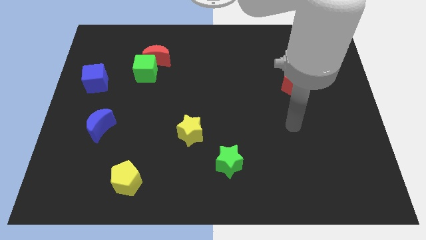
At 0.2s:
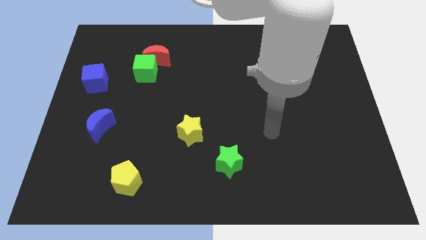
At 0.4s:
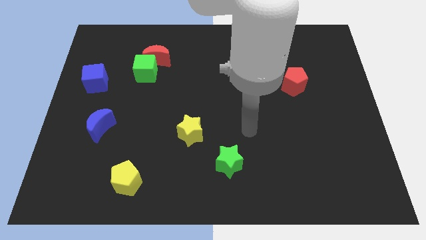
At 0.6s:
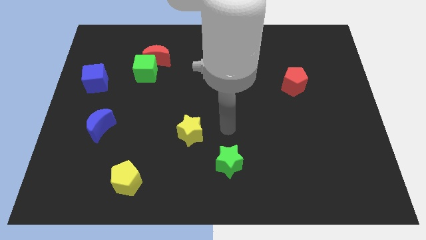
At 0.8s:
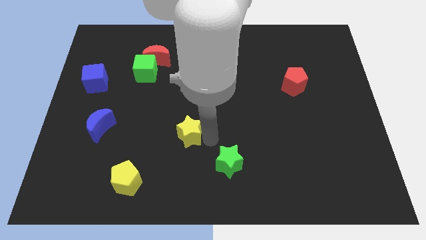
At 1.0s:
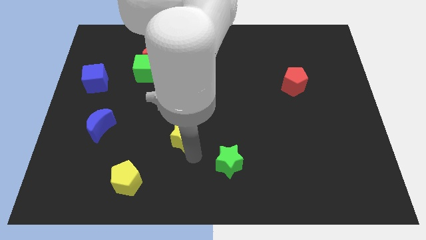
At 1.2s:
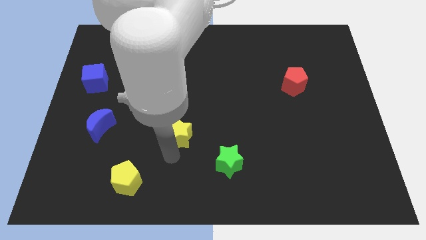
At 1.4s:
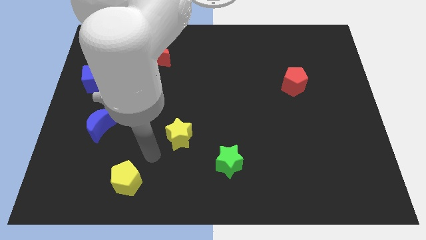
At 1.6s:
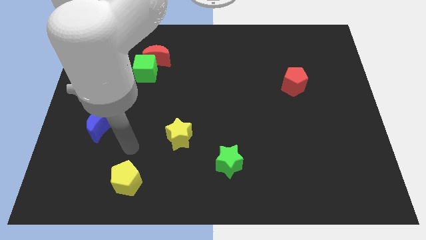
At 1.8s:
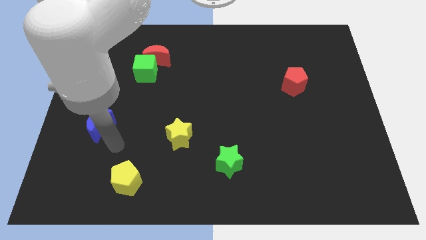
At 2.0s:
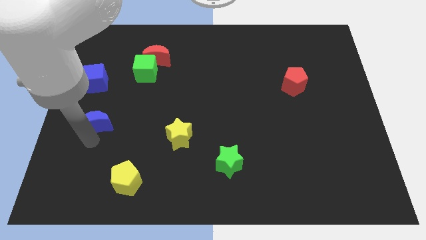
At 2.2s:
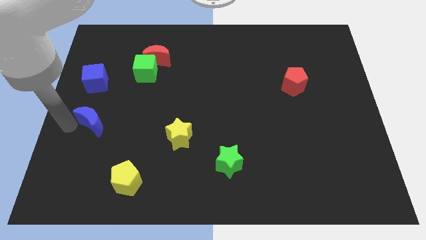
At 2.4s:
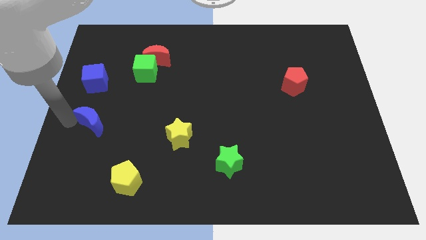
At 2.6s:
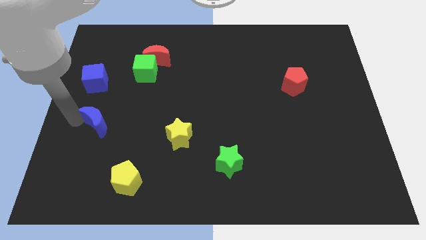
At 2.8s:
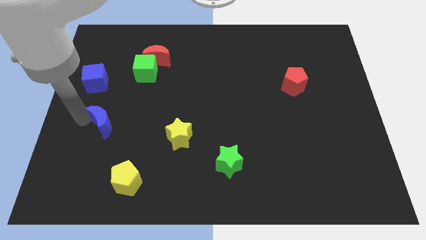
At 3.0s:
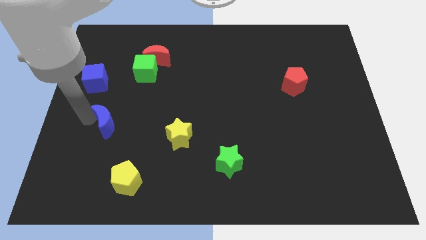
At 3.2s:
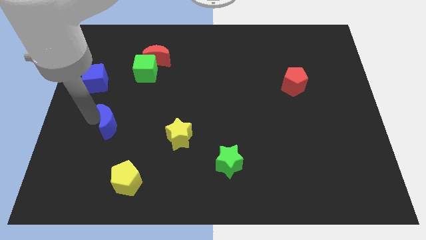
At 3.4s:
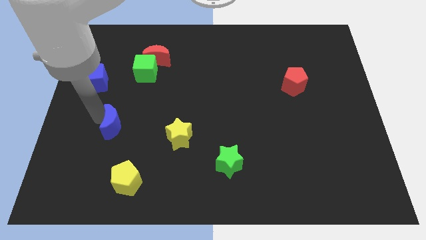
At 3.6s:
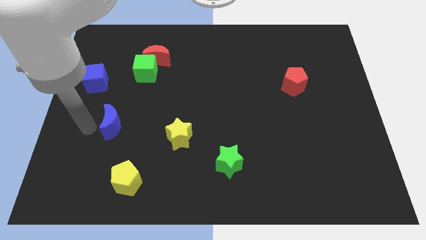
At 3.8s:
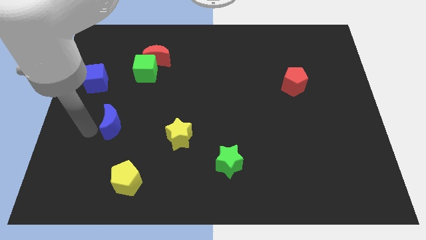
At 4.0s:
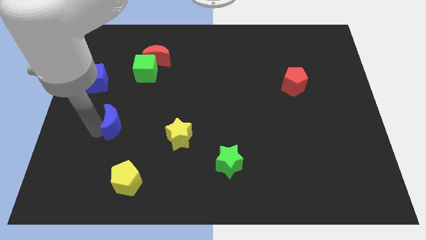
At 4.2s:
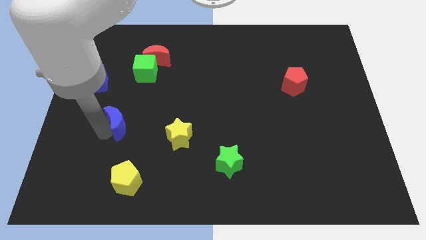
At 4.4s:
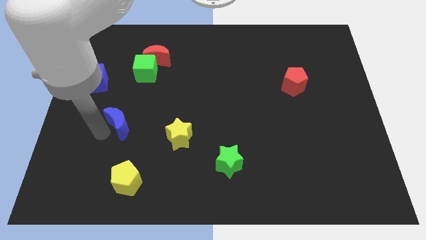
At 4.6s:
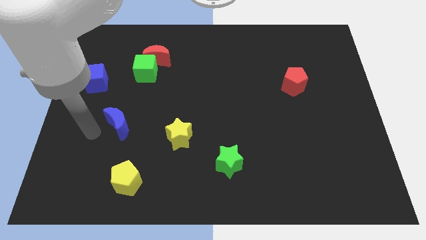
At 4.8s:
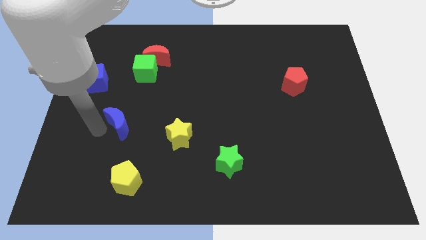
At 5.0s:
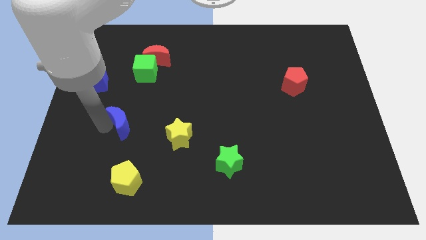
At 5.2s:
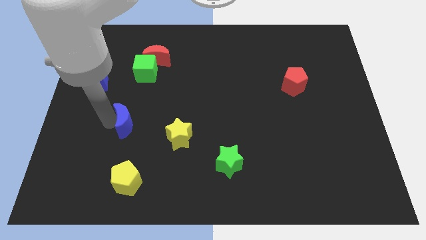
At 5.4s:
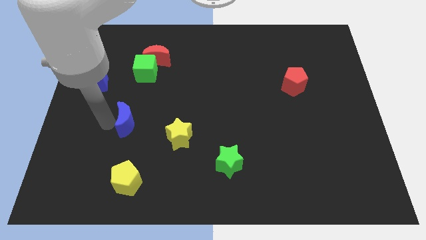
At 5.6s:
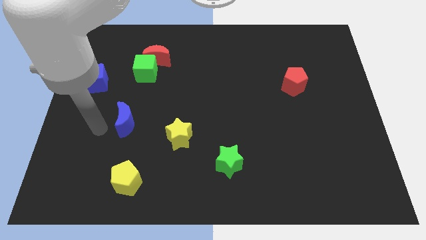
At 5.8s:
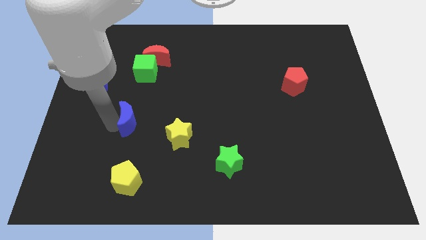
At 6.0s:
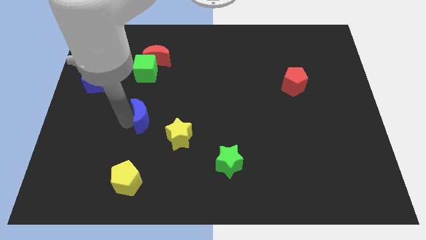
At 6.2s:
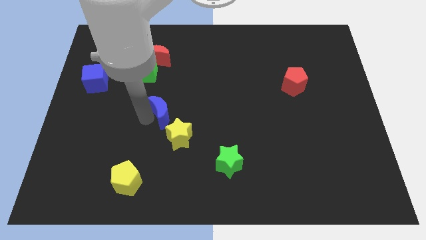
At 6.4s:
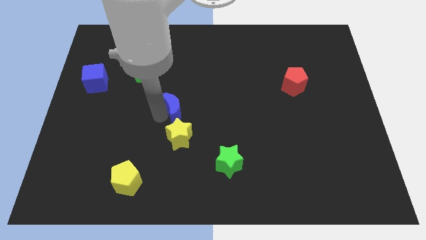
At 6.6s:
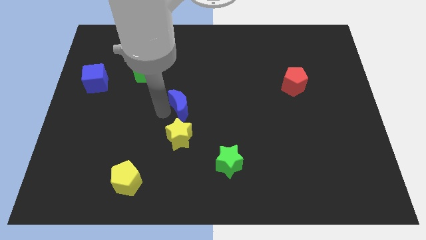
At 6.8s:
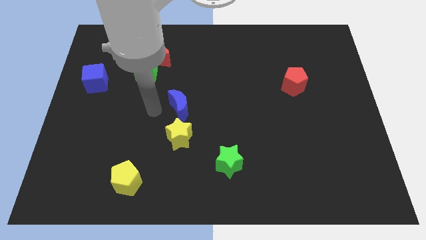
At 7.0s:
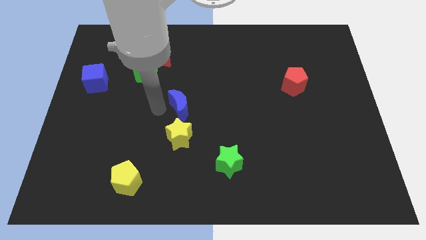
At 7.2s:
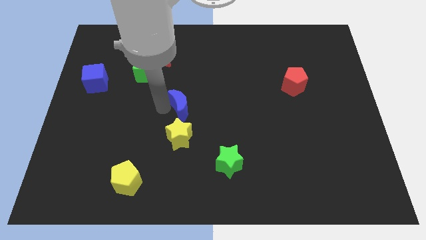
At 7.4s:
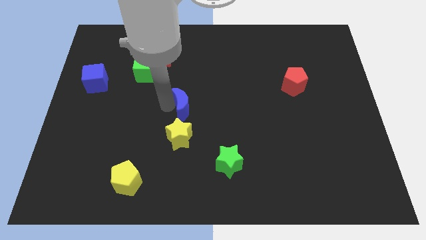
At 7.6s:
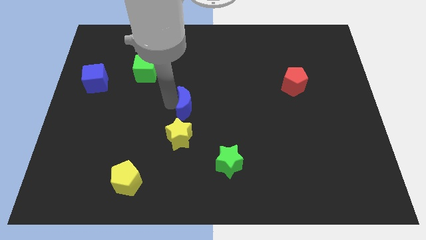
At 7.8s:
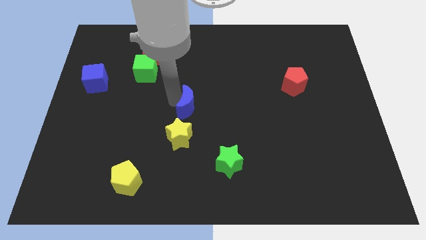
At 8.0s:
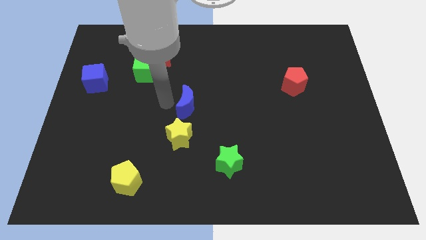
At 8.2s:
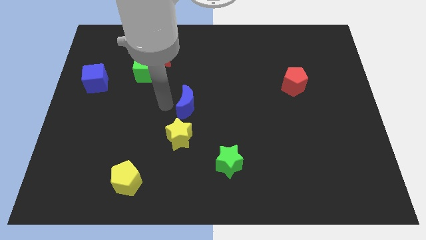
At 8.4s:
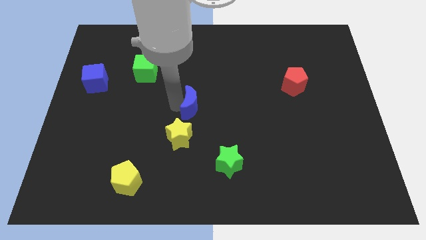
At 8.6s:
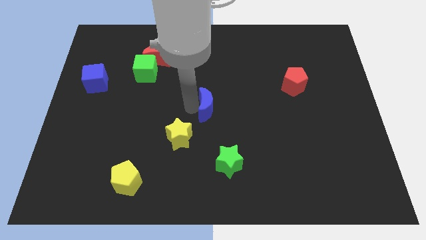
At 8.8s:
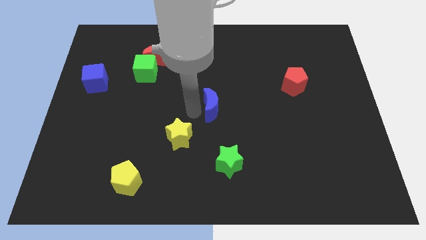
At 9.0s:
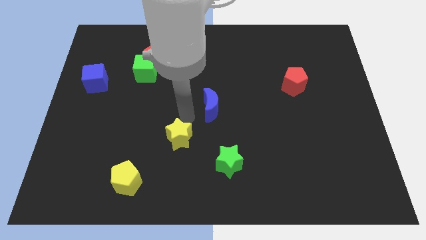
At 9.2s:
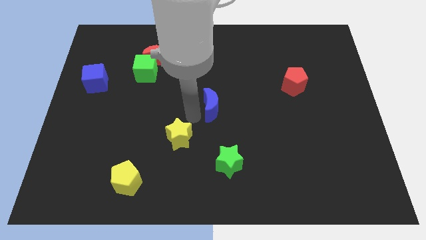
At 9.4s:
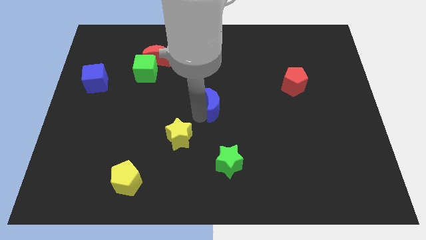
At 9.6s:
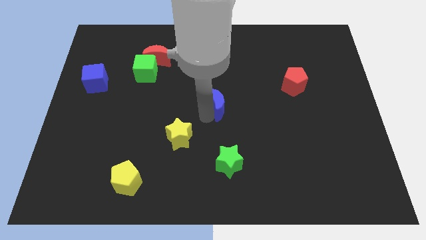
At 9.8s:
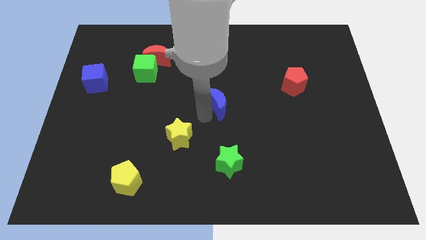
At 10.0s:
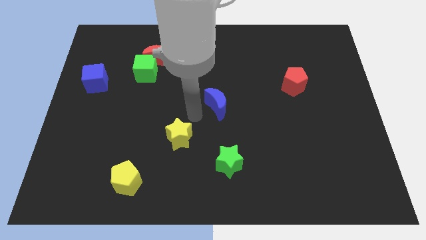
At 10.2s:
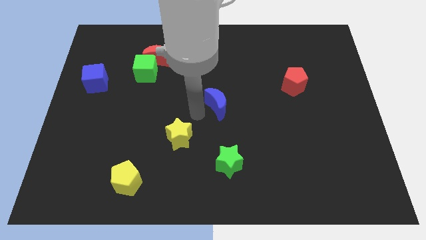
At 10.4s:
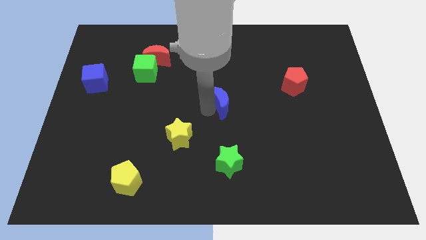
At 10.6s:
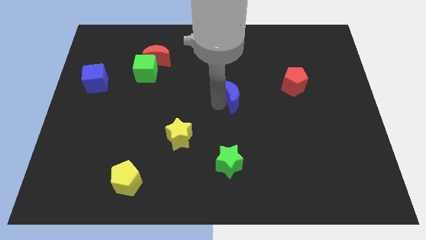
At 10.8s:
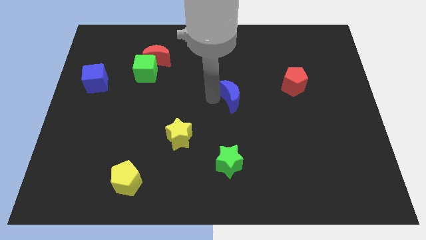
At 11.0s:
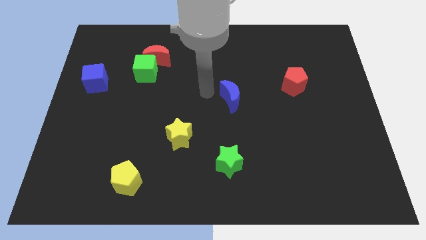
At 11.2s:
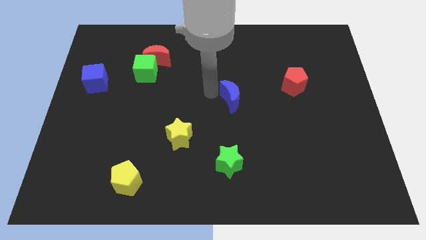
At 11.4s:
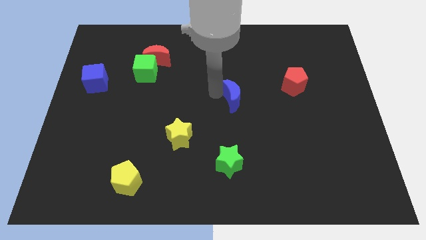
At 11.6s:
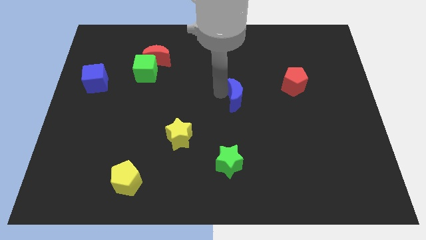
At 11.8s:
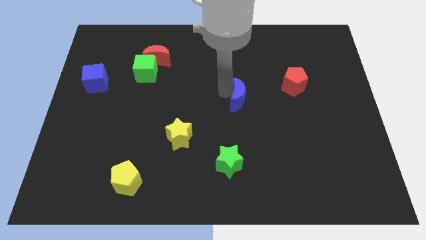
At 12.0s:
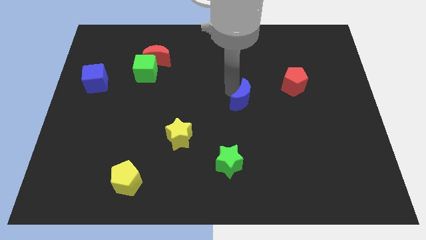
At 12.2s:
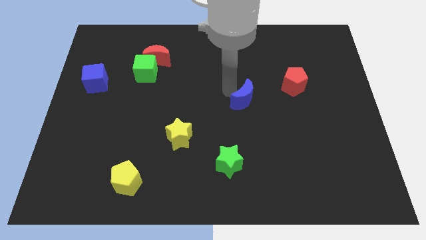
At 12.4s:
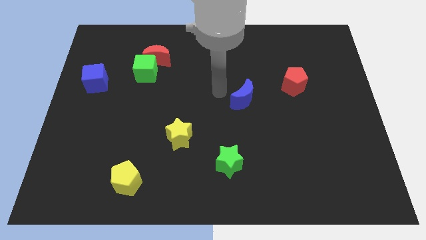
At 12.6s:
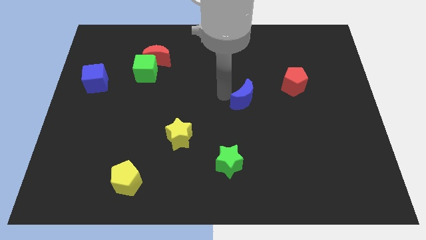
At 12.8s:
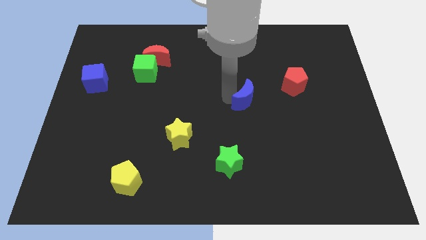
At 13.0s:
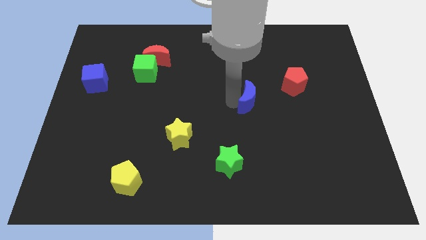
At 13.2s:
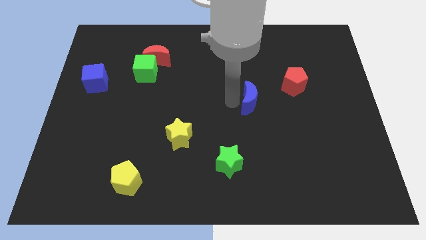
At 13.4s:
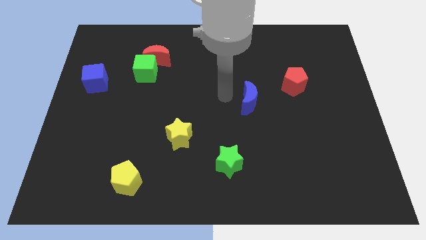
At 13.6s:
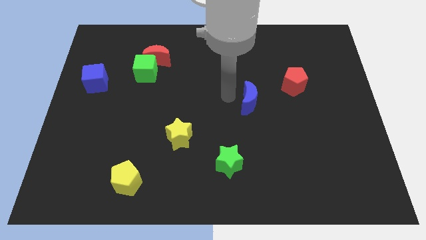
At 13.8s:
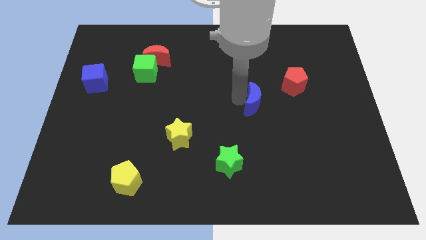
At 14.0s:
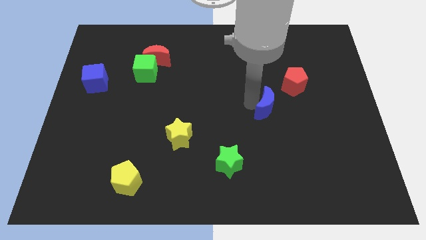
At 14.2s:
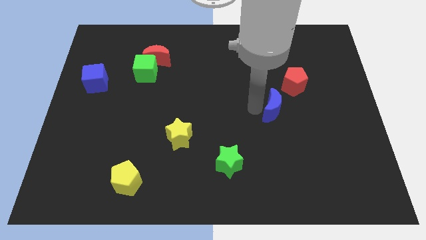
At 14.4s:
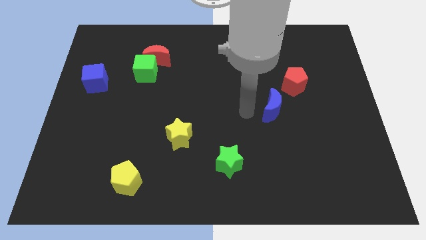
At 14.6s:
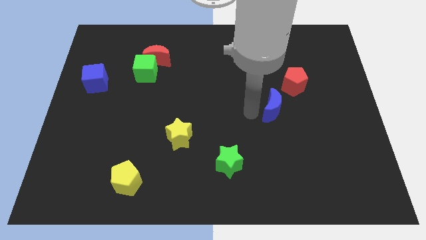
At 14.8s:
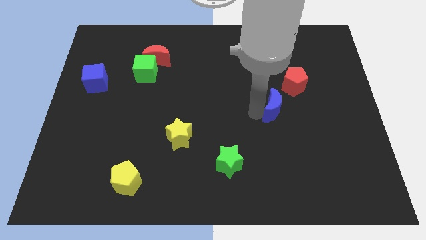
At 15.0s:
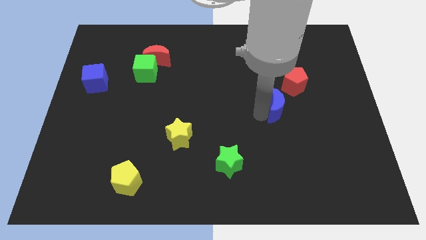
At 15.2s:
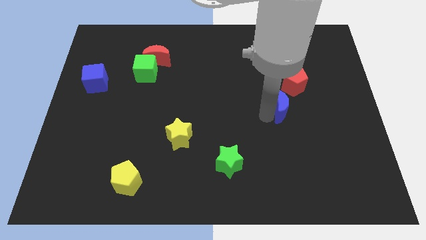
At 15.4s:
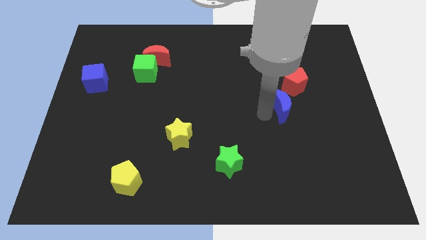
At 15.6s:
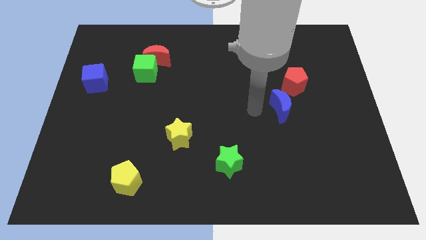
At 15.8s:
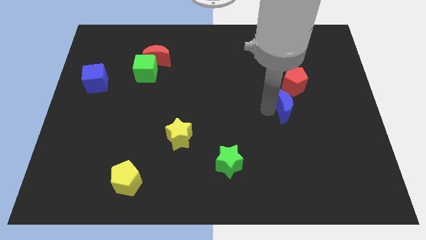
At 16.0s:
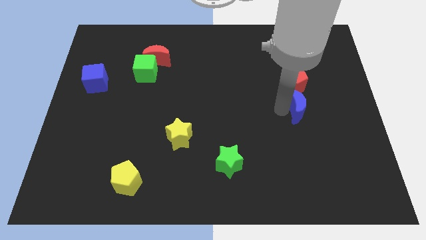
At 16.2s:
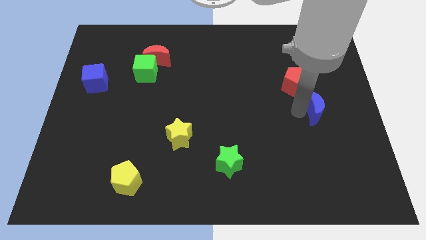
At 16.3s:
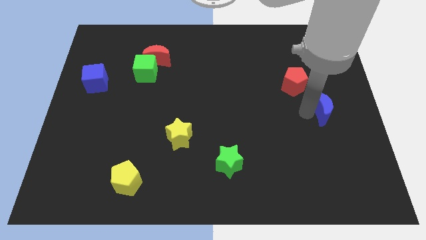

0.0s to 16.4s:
put the blue moon to the right side
